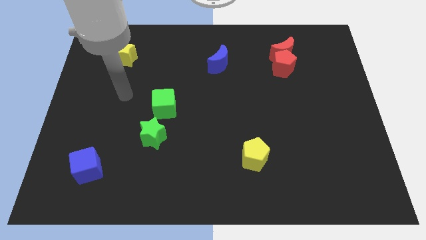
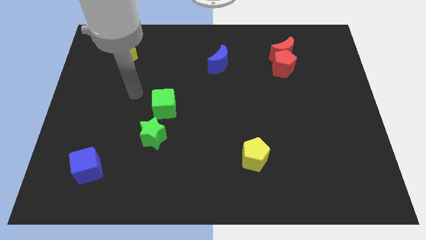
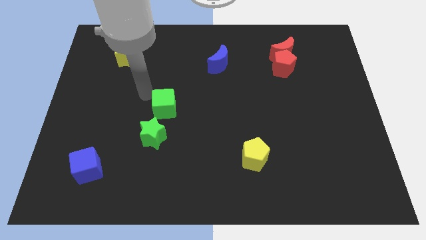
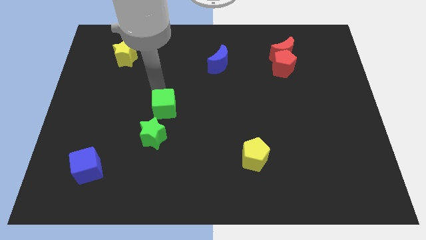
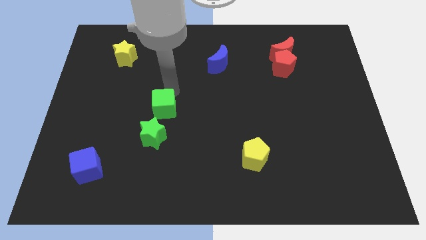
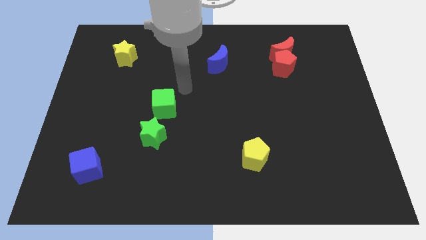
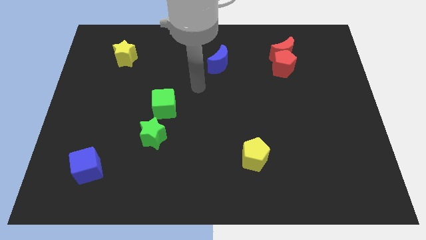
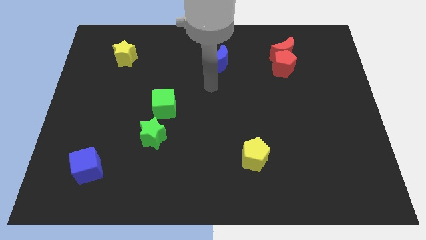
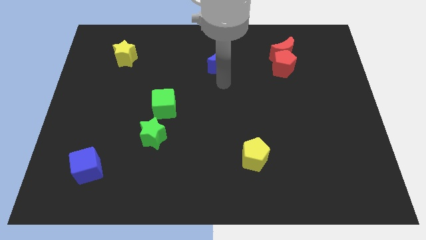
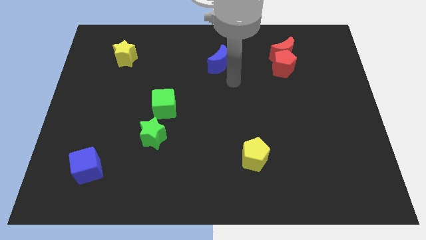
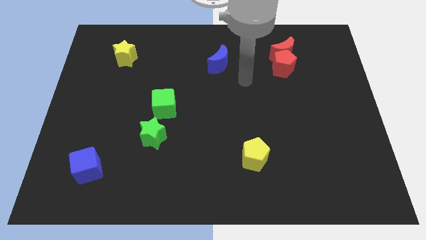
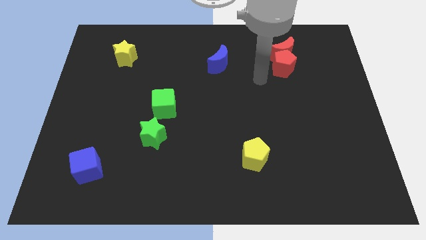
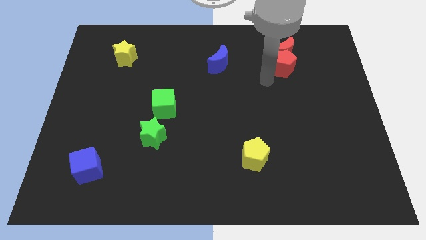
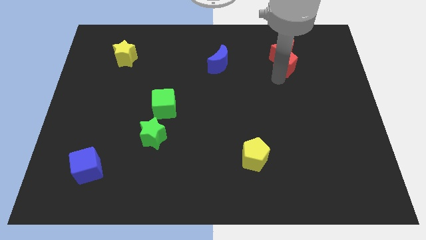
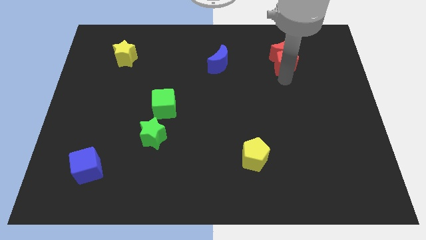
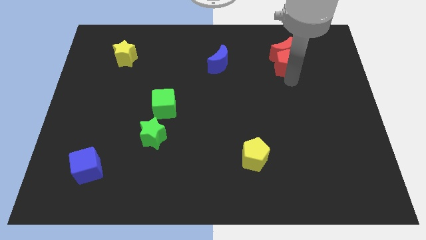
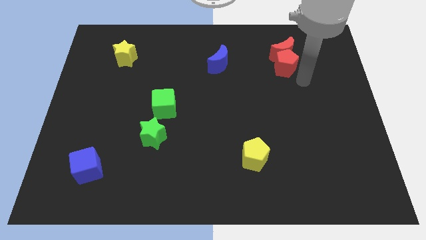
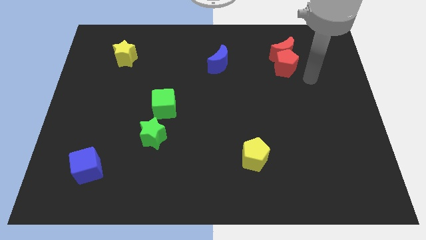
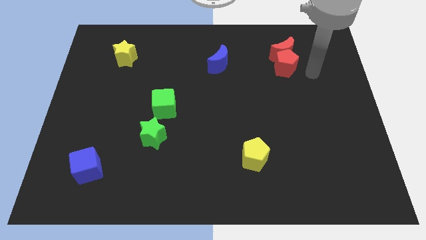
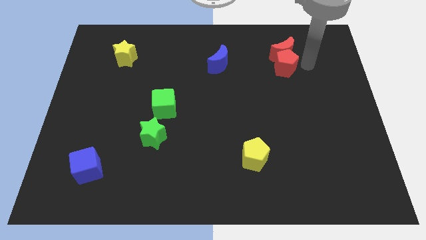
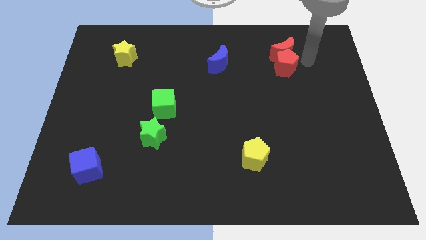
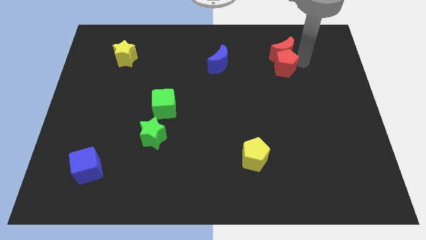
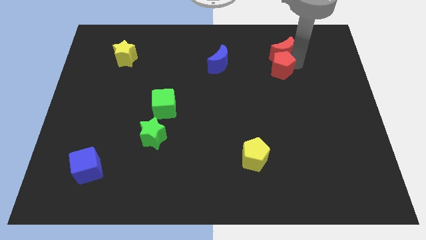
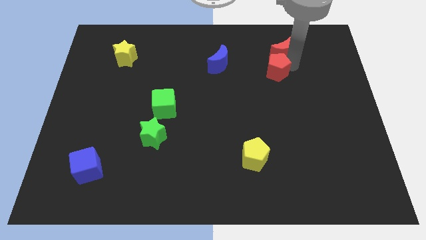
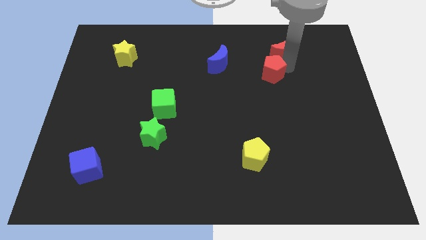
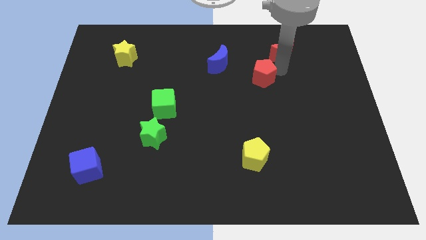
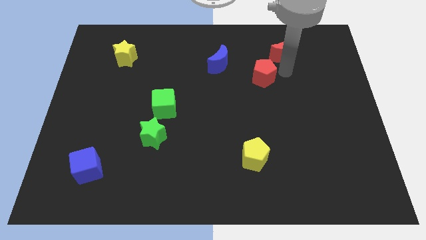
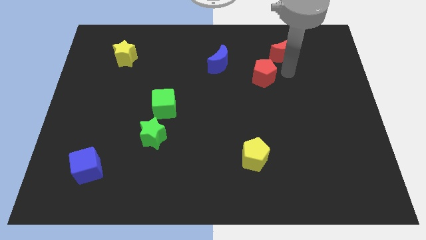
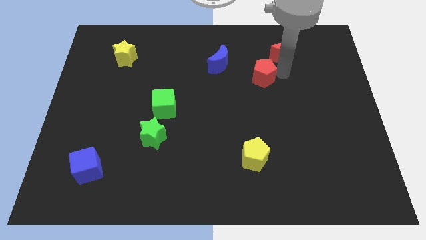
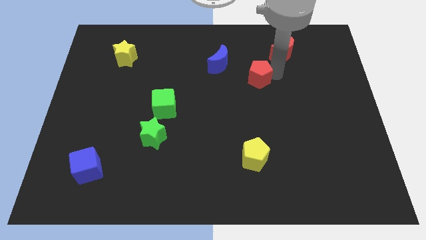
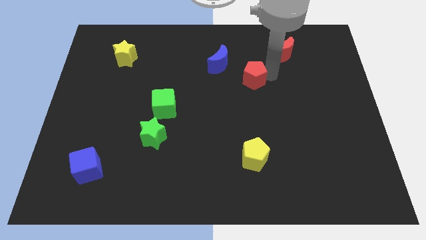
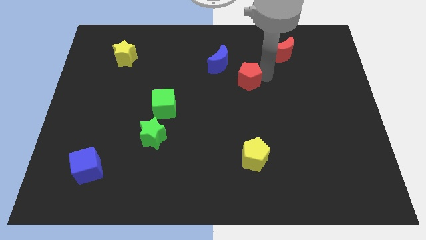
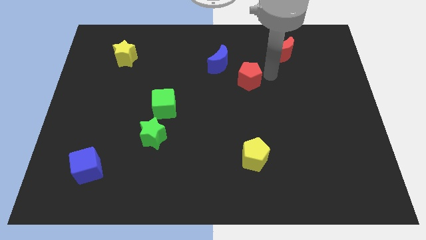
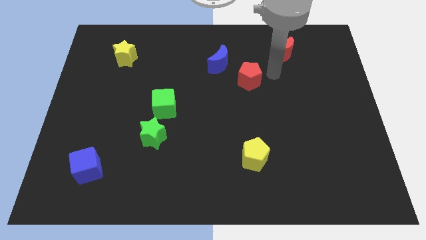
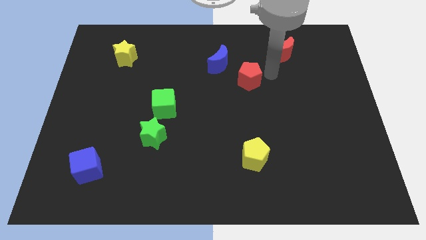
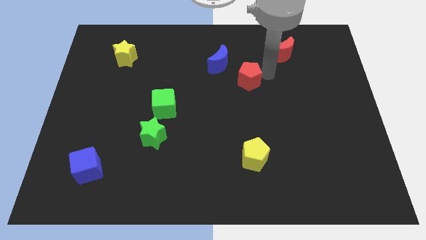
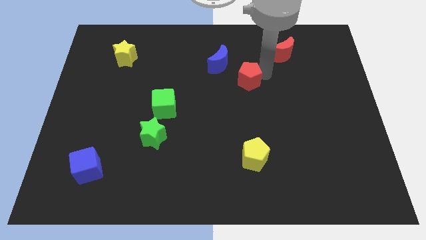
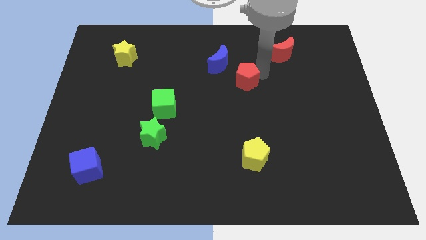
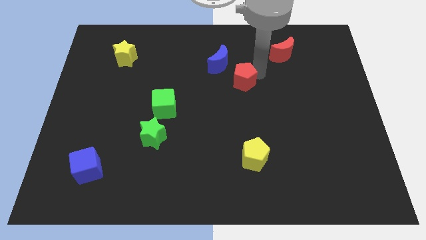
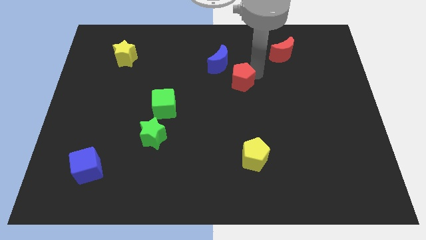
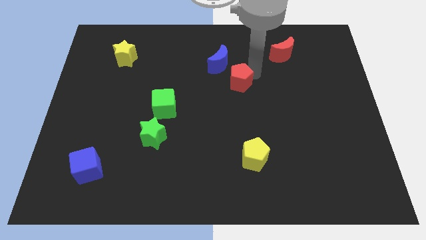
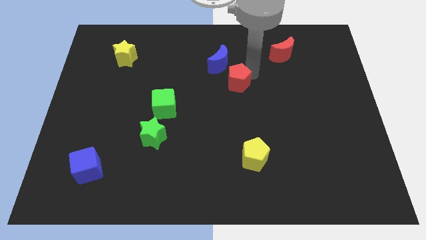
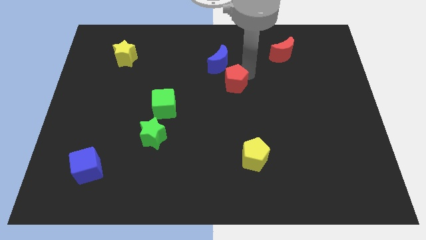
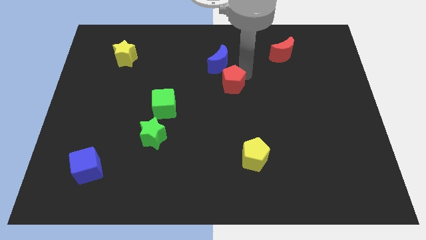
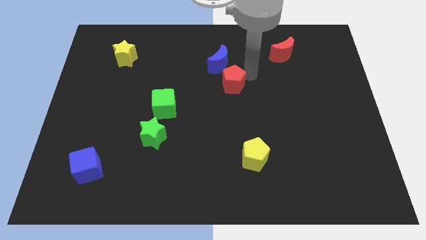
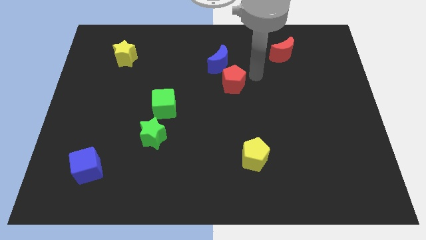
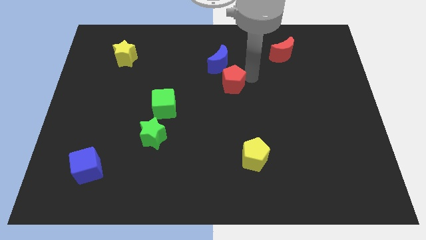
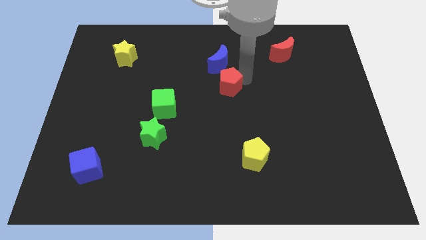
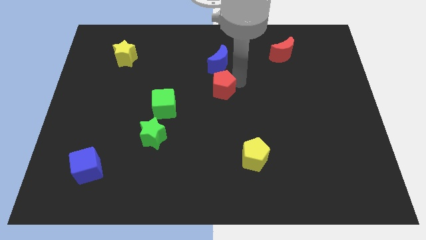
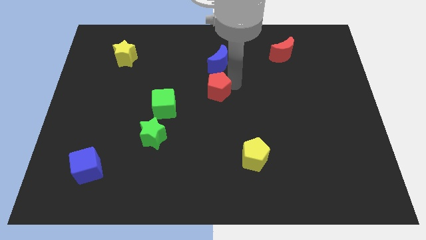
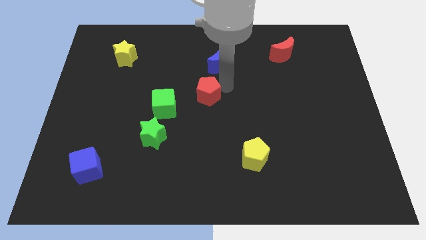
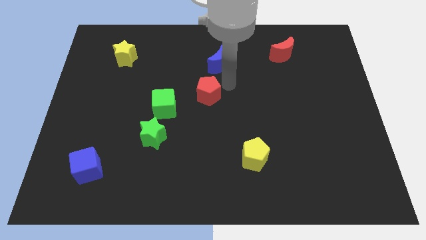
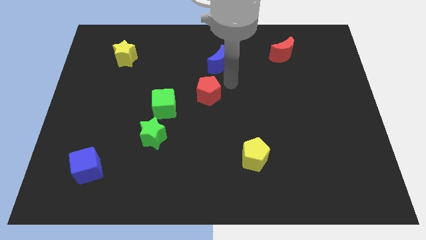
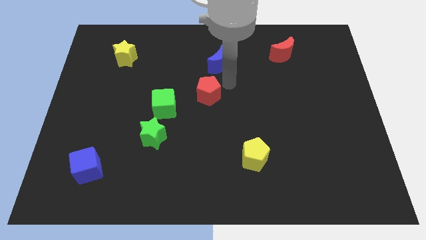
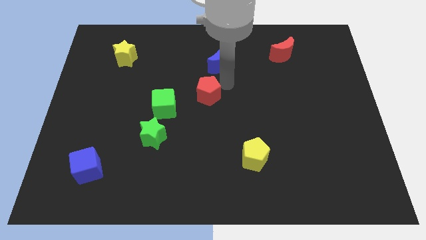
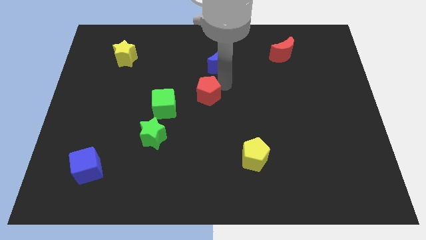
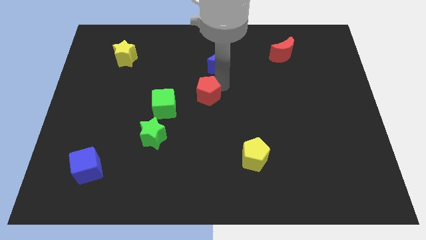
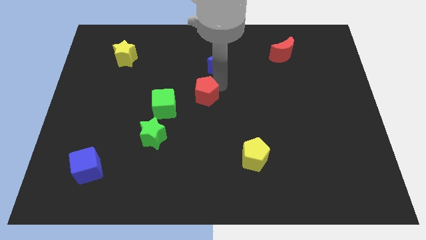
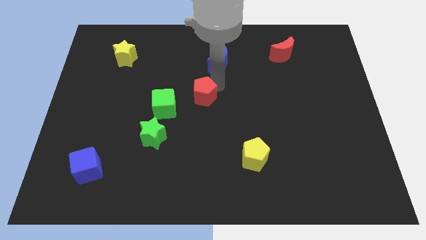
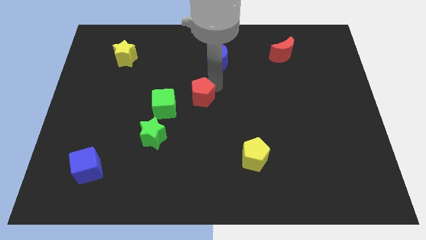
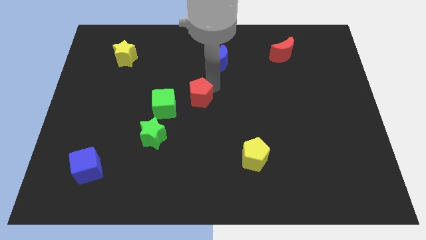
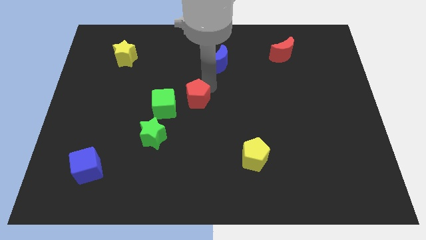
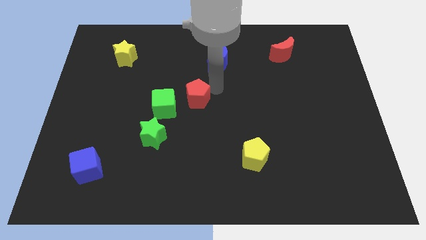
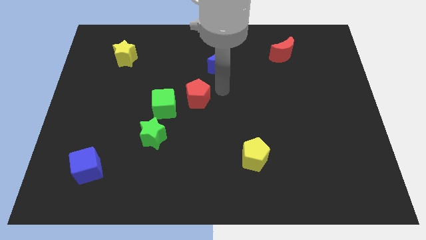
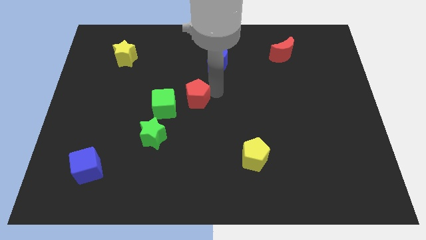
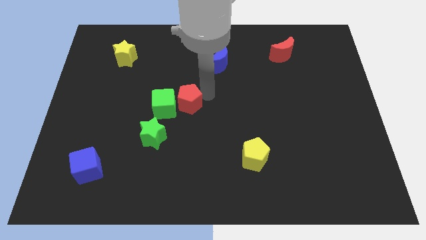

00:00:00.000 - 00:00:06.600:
slide the red pentagon towards the green cube
